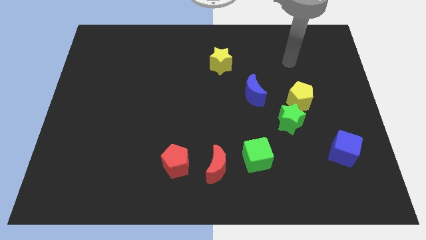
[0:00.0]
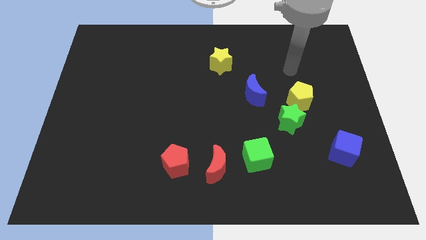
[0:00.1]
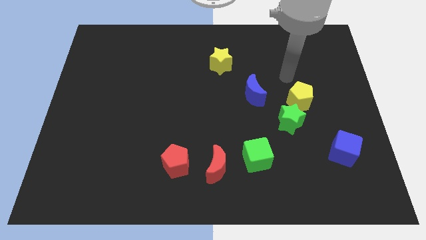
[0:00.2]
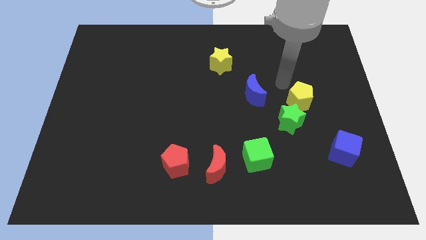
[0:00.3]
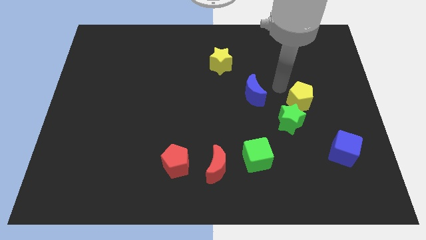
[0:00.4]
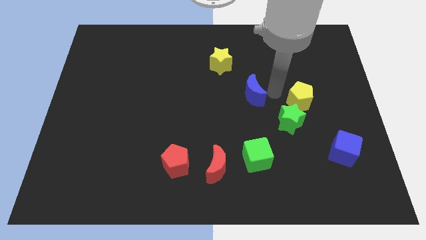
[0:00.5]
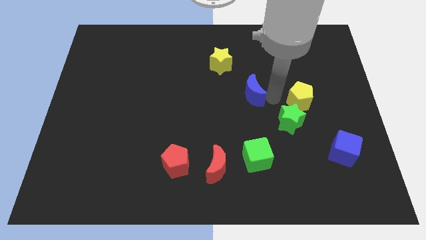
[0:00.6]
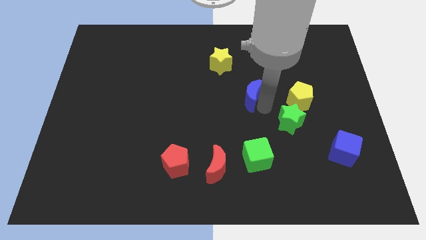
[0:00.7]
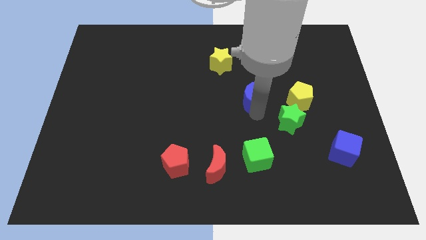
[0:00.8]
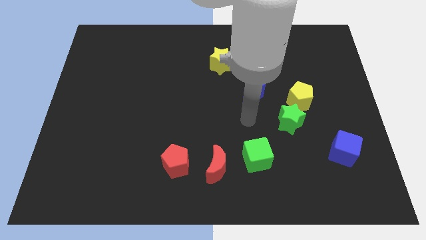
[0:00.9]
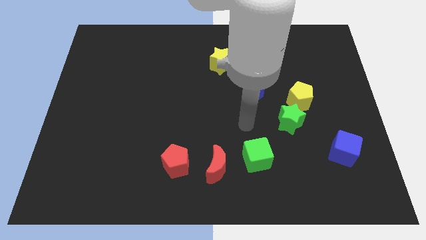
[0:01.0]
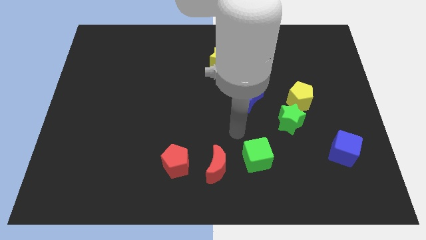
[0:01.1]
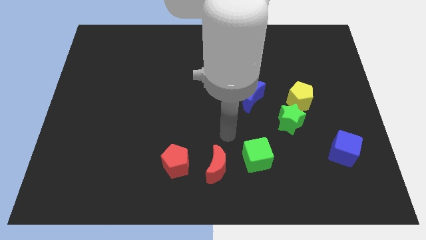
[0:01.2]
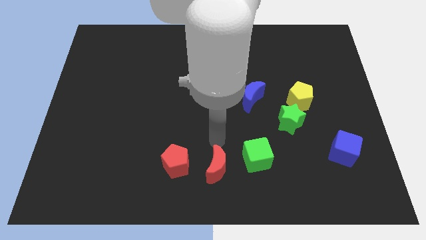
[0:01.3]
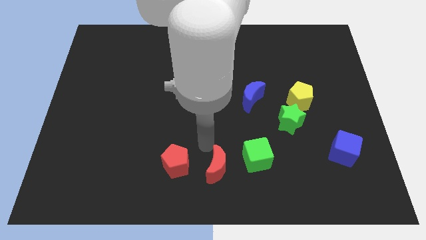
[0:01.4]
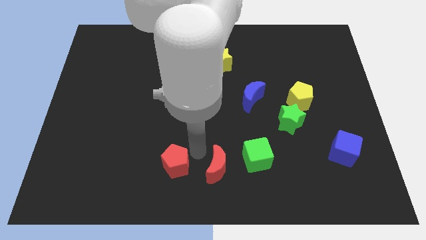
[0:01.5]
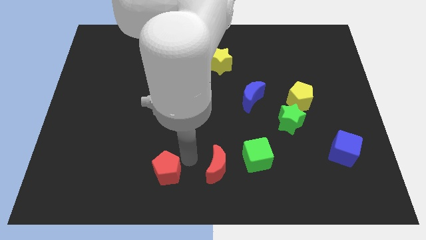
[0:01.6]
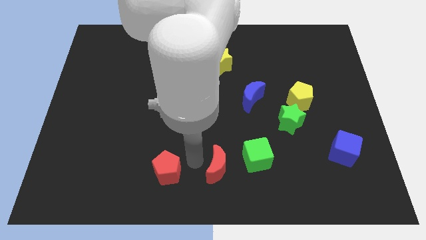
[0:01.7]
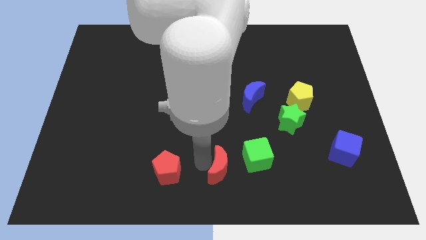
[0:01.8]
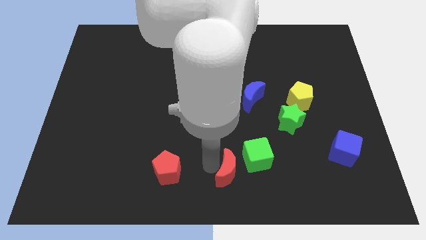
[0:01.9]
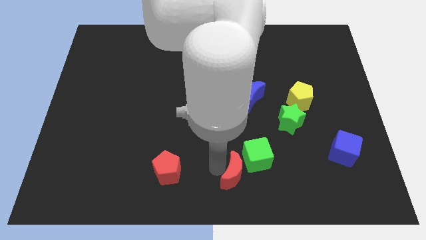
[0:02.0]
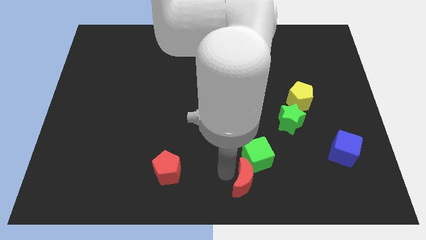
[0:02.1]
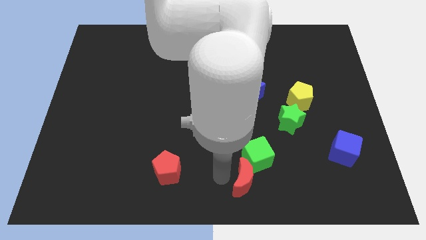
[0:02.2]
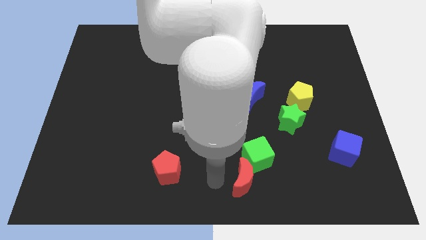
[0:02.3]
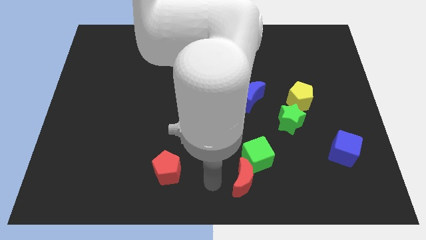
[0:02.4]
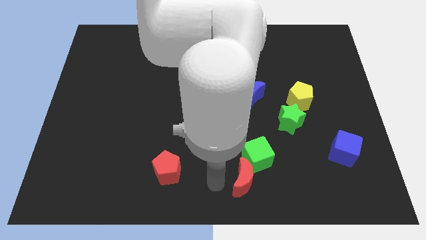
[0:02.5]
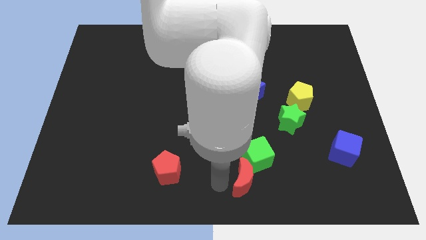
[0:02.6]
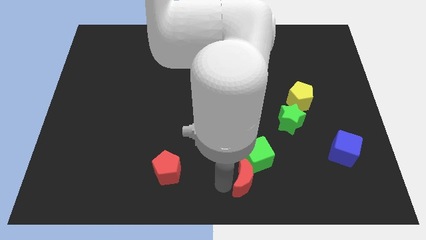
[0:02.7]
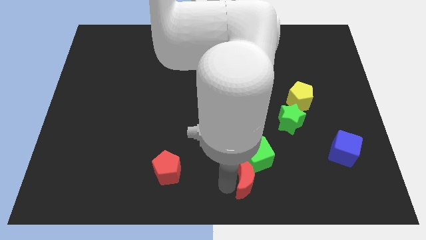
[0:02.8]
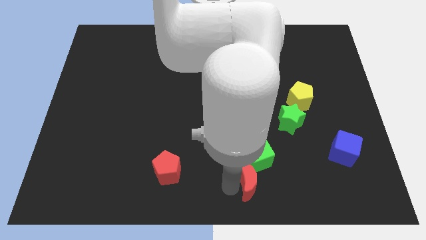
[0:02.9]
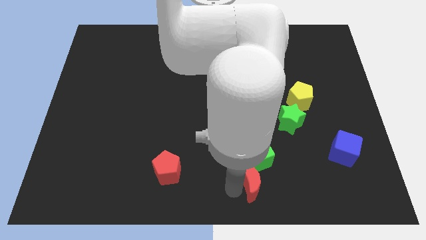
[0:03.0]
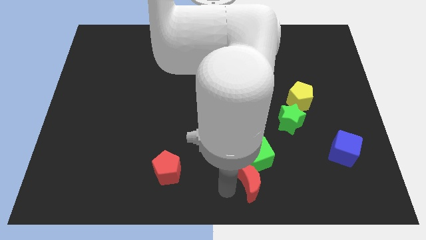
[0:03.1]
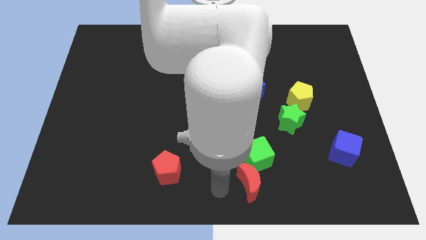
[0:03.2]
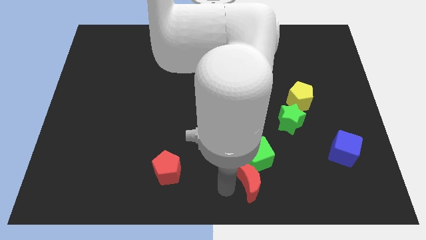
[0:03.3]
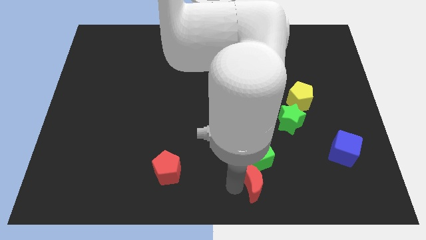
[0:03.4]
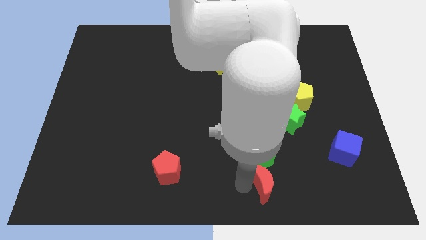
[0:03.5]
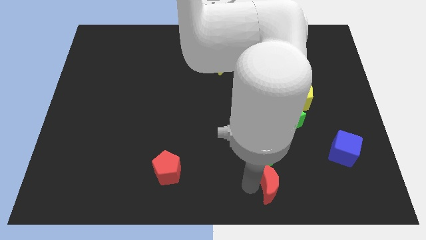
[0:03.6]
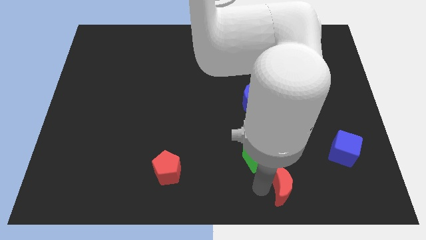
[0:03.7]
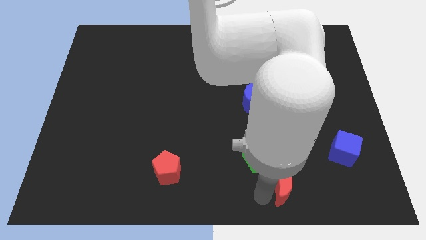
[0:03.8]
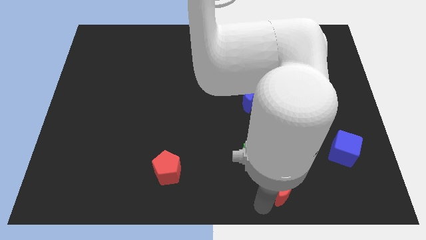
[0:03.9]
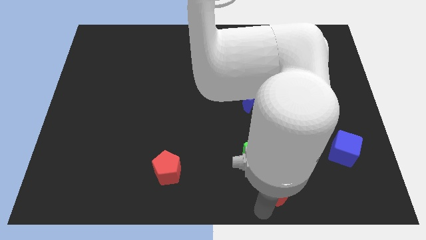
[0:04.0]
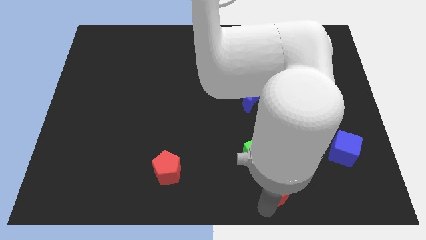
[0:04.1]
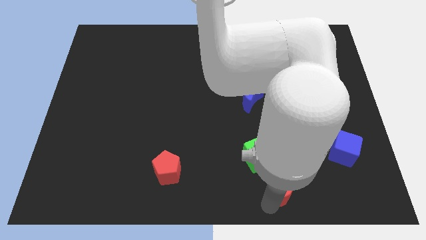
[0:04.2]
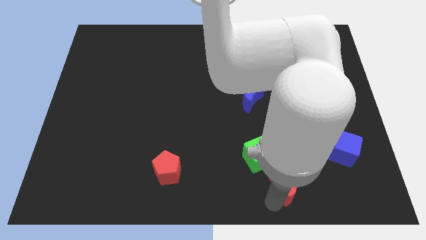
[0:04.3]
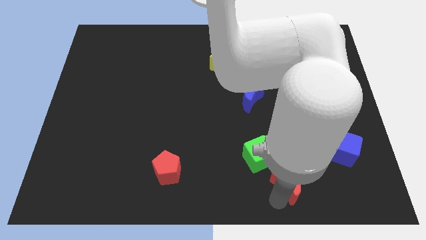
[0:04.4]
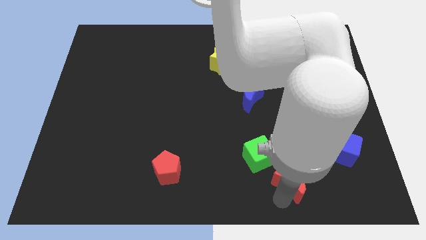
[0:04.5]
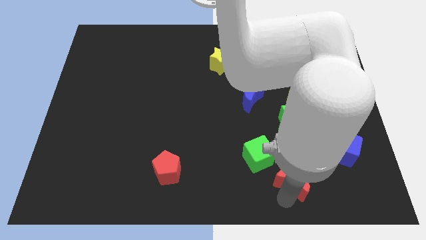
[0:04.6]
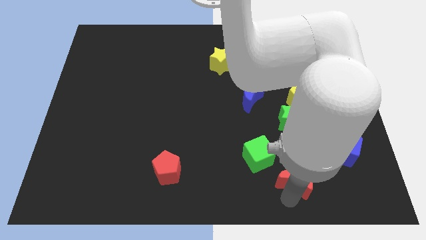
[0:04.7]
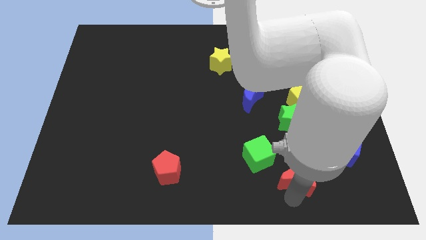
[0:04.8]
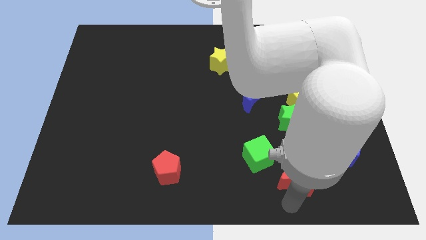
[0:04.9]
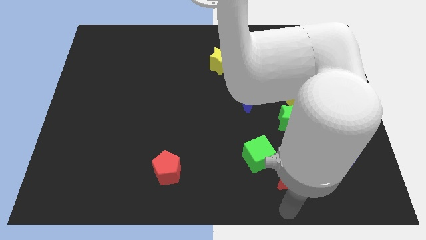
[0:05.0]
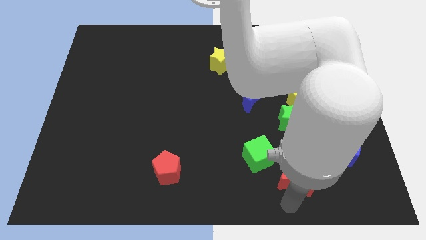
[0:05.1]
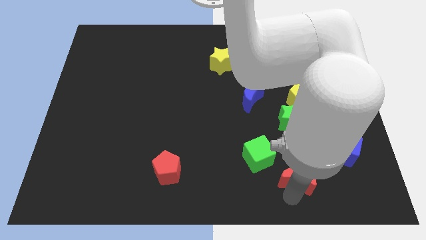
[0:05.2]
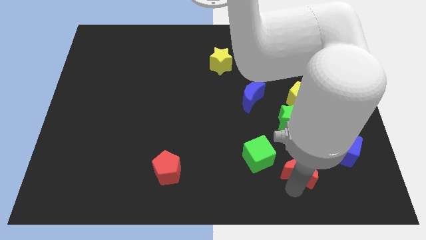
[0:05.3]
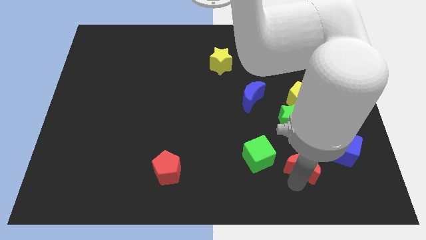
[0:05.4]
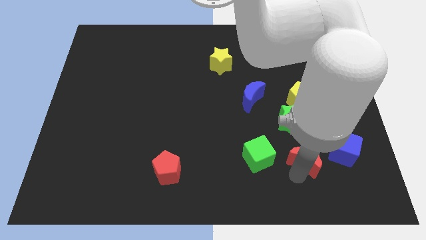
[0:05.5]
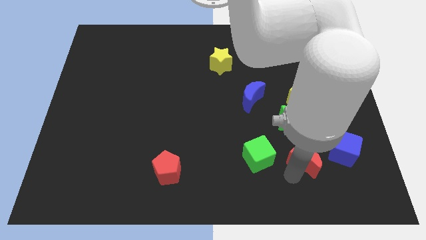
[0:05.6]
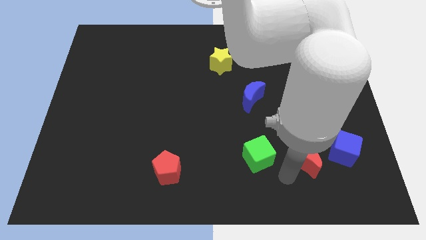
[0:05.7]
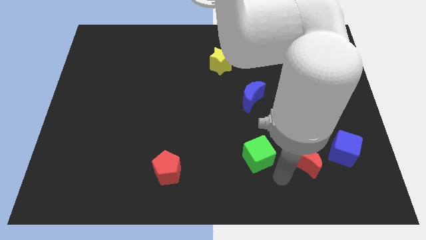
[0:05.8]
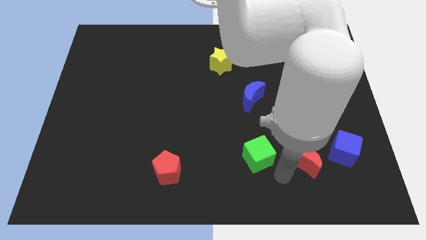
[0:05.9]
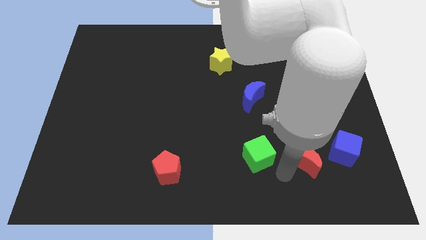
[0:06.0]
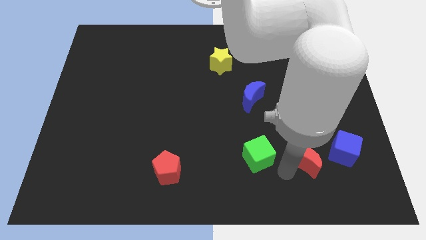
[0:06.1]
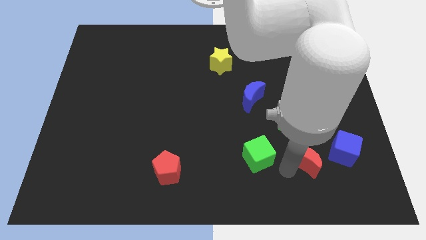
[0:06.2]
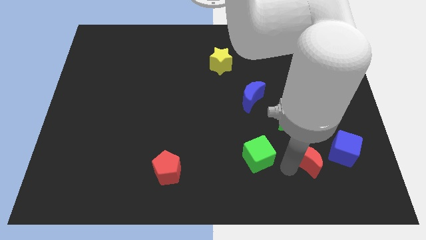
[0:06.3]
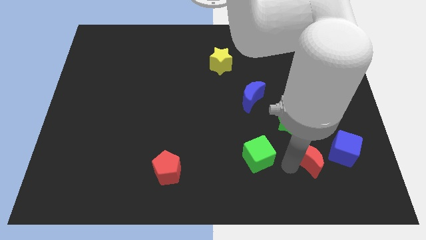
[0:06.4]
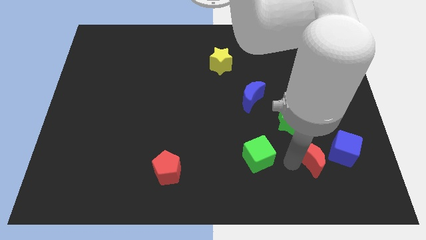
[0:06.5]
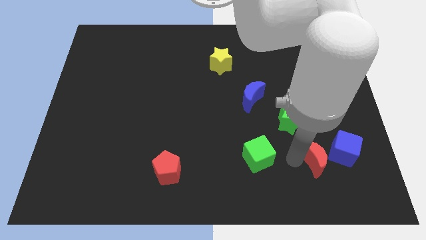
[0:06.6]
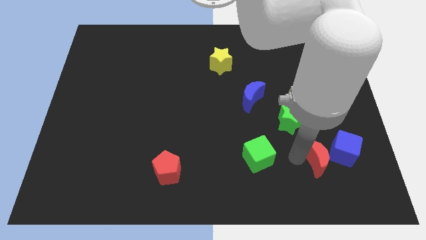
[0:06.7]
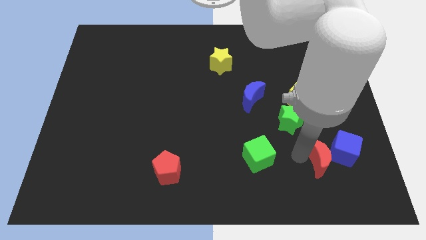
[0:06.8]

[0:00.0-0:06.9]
slide the red moon close to the blue cube
